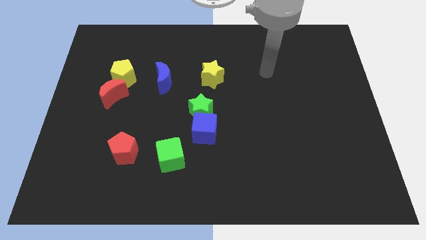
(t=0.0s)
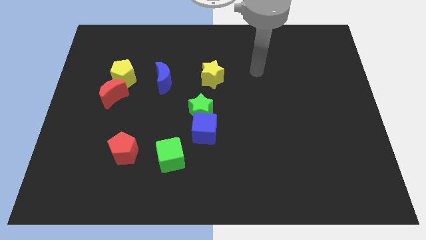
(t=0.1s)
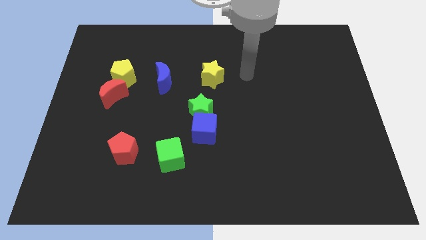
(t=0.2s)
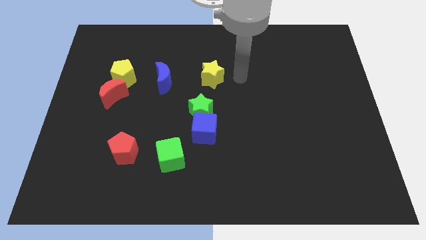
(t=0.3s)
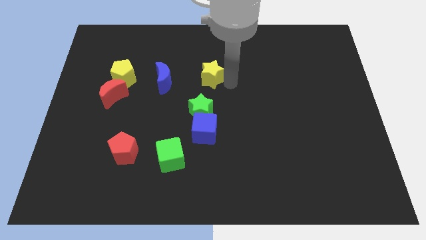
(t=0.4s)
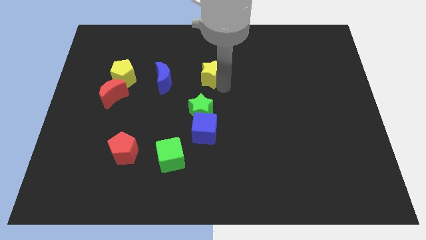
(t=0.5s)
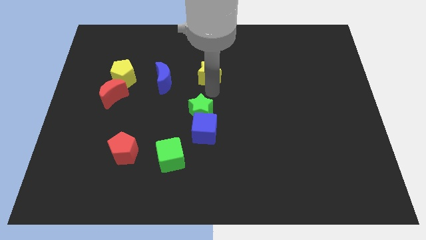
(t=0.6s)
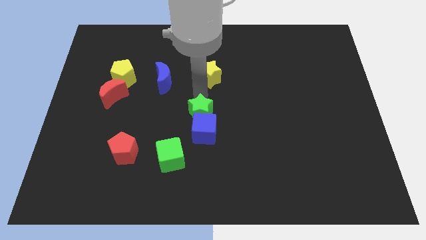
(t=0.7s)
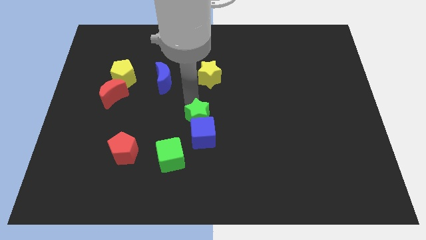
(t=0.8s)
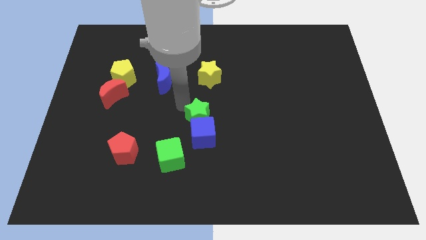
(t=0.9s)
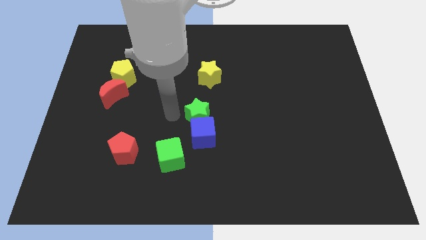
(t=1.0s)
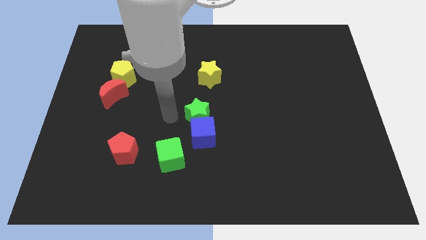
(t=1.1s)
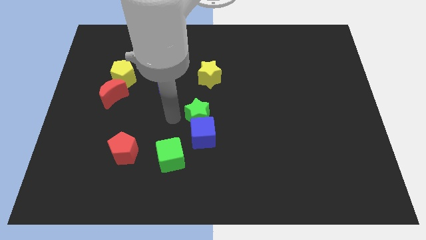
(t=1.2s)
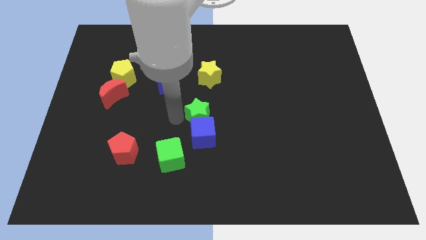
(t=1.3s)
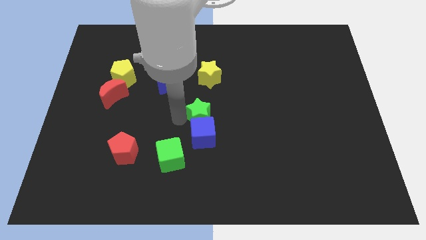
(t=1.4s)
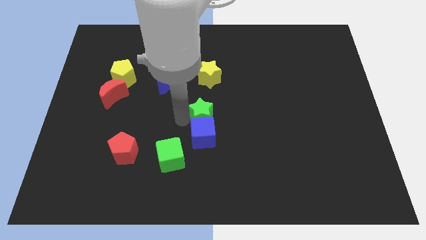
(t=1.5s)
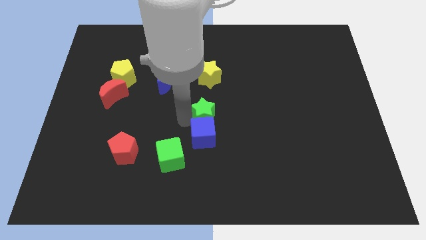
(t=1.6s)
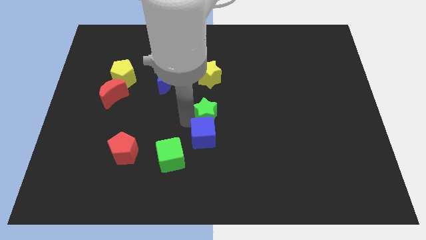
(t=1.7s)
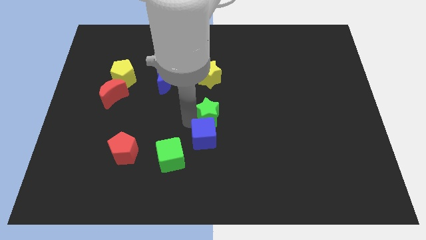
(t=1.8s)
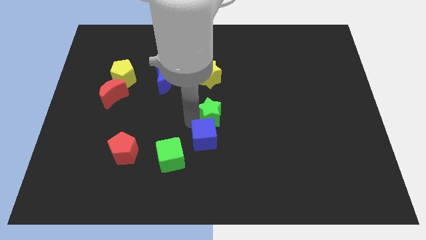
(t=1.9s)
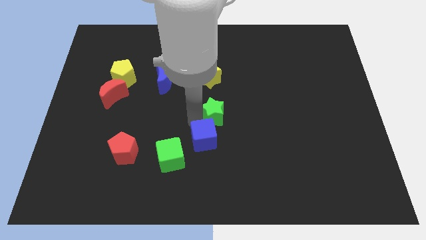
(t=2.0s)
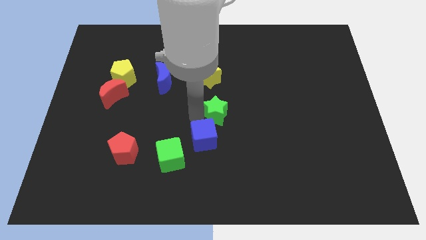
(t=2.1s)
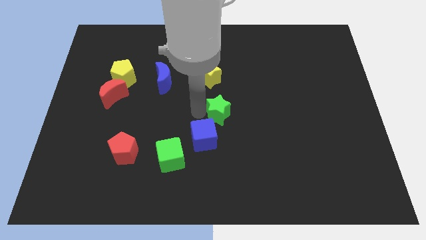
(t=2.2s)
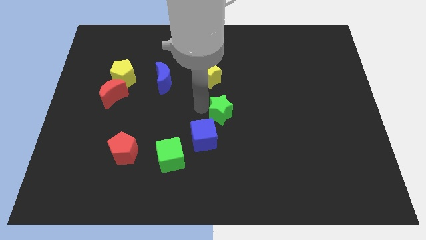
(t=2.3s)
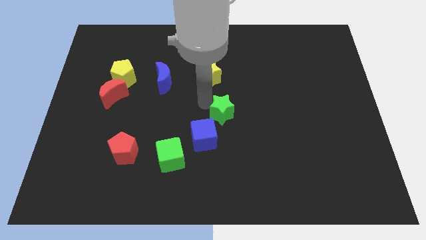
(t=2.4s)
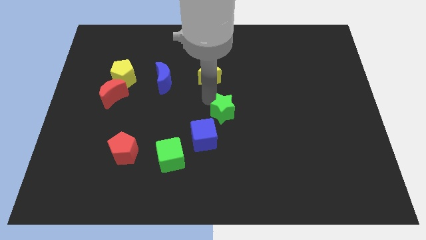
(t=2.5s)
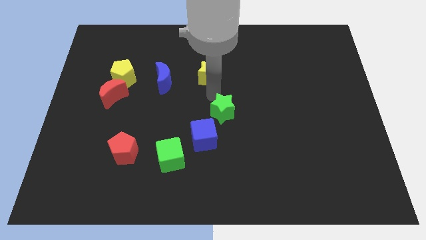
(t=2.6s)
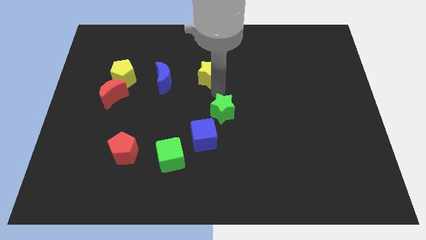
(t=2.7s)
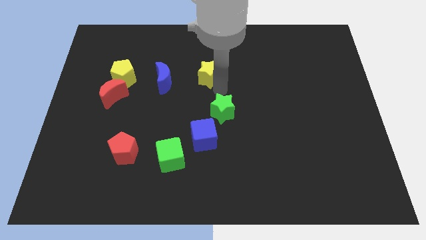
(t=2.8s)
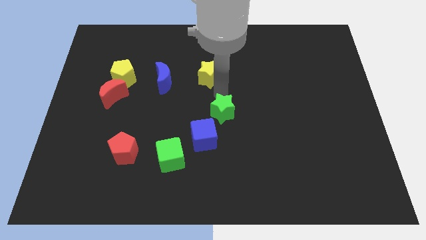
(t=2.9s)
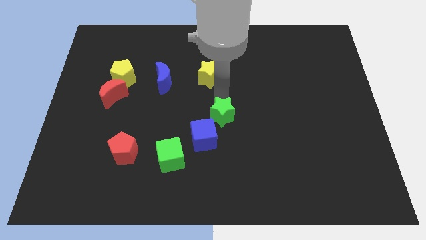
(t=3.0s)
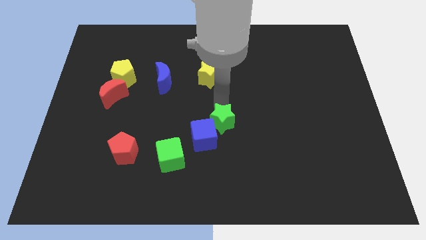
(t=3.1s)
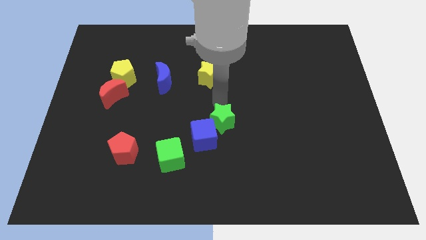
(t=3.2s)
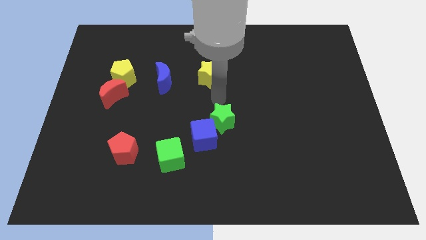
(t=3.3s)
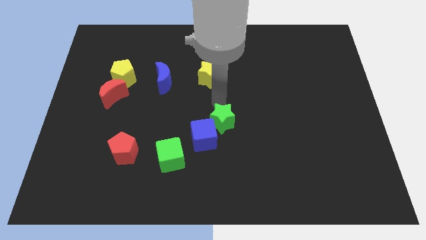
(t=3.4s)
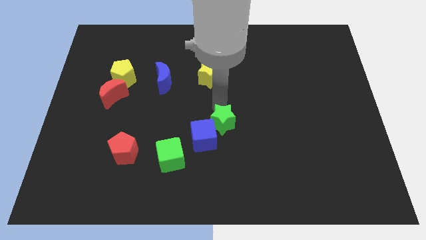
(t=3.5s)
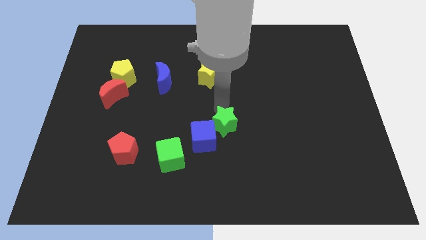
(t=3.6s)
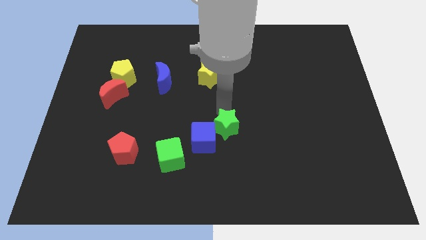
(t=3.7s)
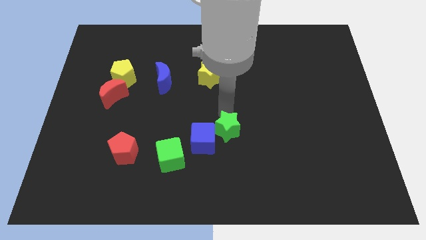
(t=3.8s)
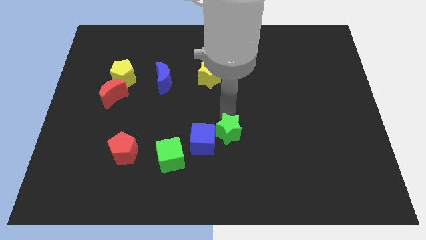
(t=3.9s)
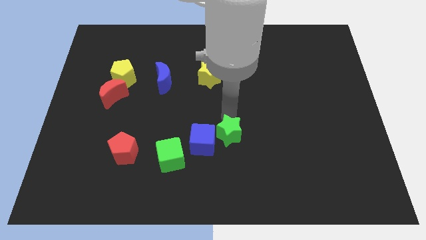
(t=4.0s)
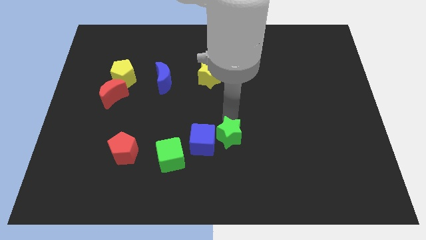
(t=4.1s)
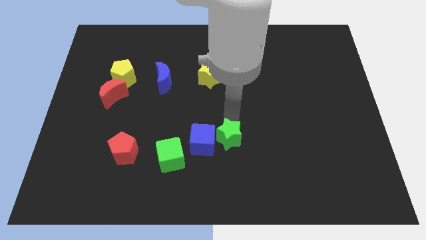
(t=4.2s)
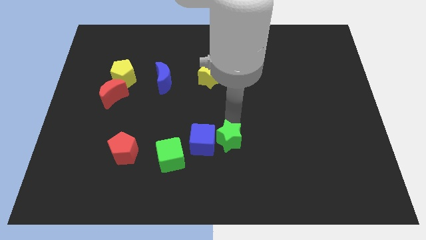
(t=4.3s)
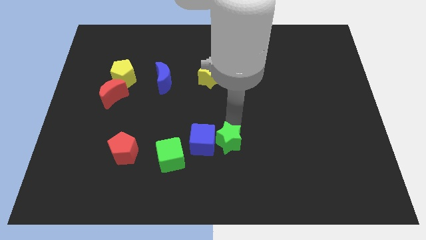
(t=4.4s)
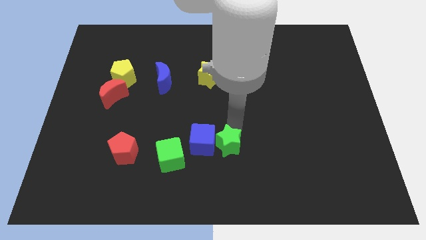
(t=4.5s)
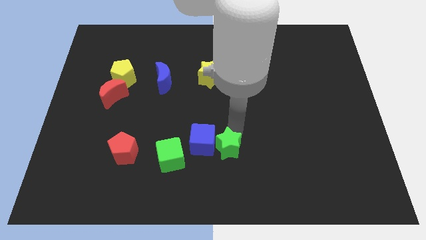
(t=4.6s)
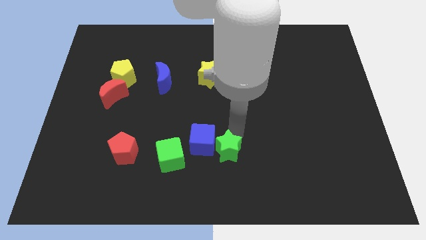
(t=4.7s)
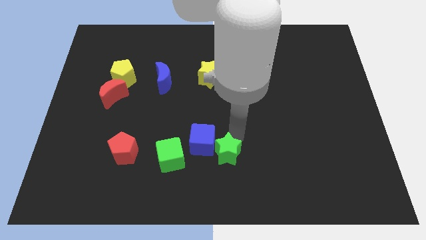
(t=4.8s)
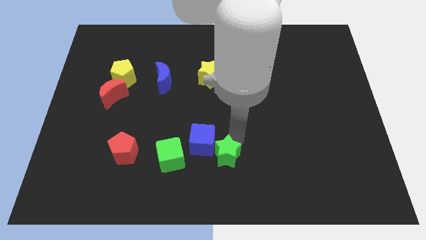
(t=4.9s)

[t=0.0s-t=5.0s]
slide the green star to the bottom

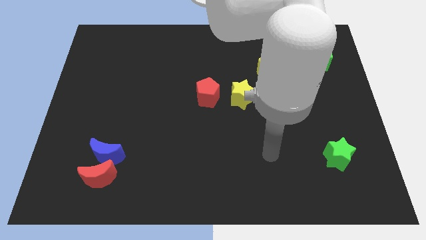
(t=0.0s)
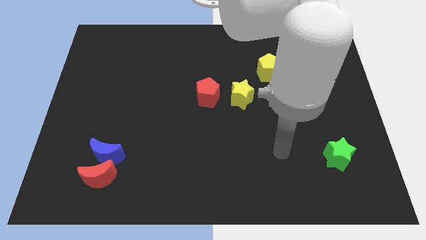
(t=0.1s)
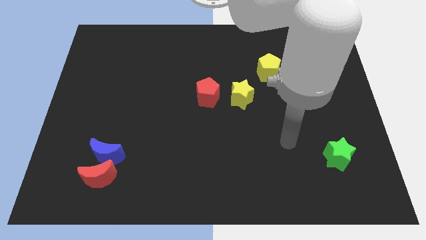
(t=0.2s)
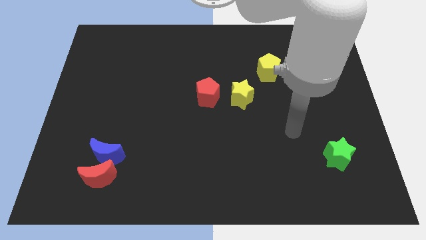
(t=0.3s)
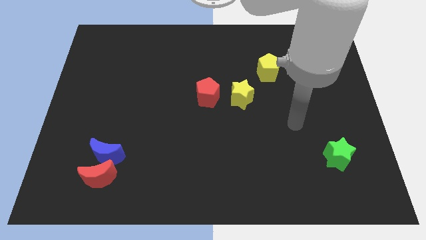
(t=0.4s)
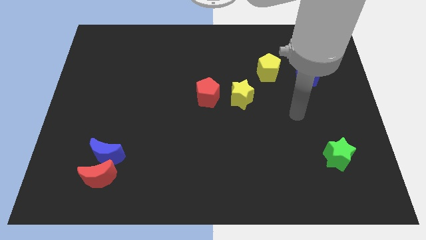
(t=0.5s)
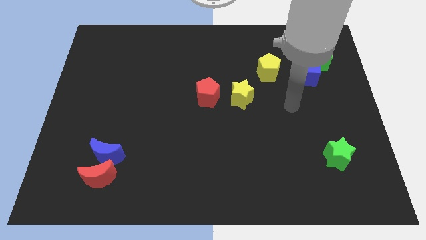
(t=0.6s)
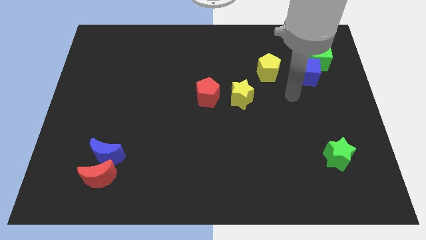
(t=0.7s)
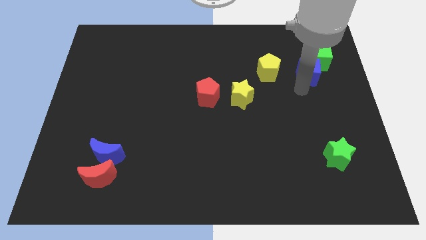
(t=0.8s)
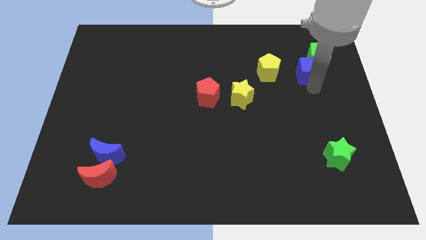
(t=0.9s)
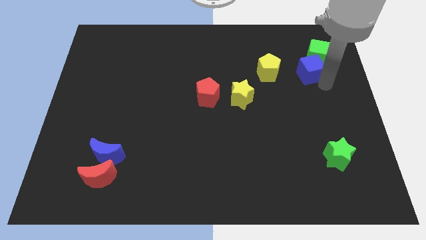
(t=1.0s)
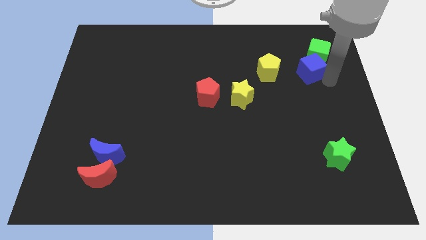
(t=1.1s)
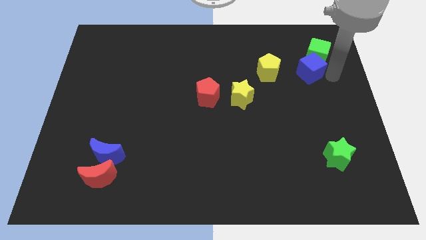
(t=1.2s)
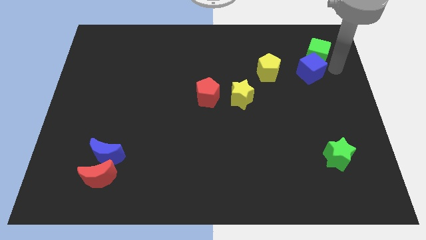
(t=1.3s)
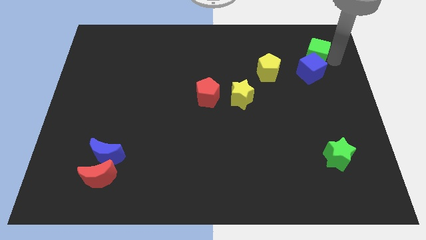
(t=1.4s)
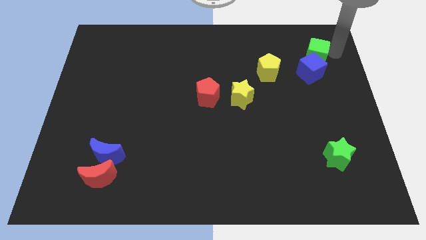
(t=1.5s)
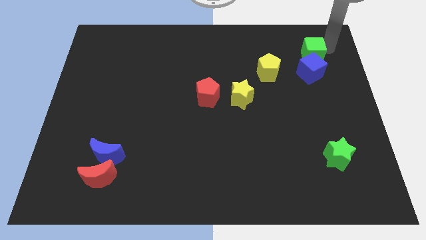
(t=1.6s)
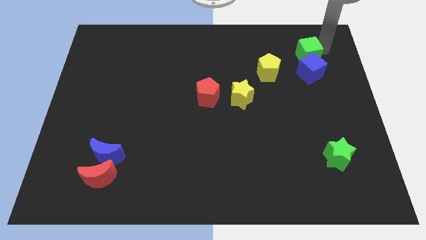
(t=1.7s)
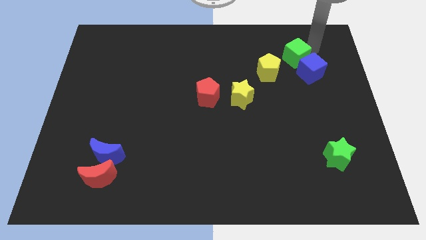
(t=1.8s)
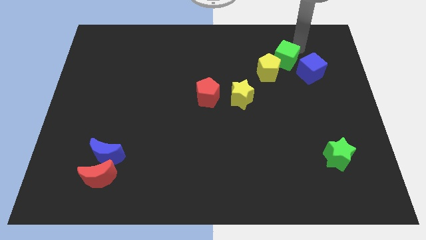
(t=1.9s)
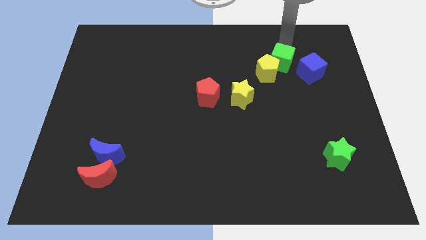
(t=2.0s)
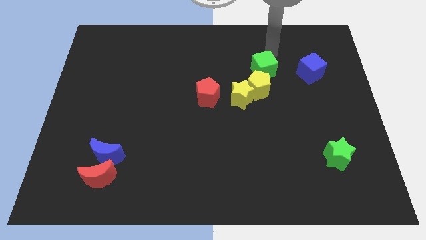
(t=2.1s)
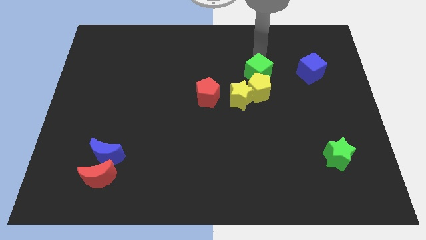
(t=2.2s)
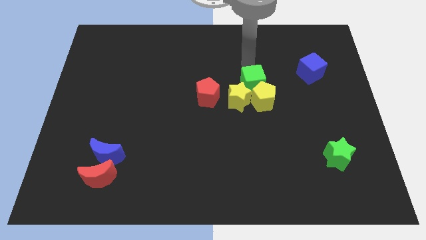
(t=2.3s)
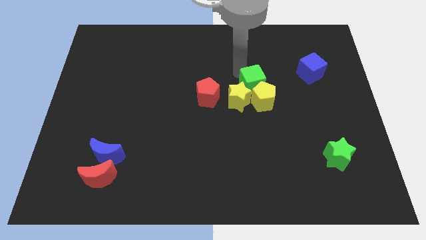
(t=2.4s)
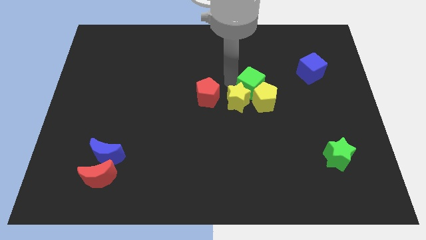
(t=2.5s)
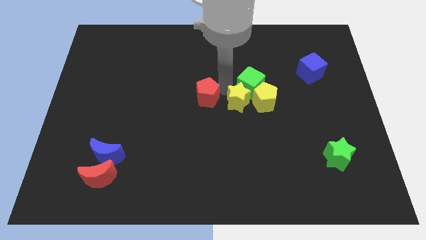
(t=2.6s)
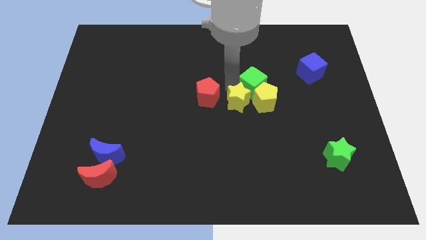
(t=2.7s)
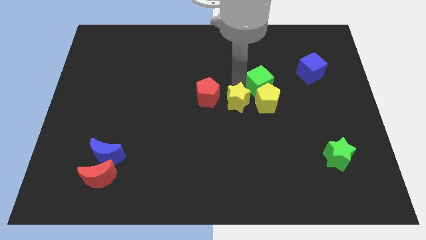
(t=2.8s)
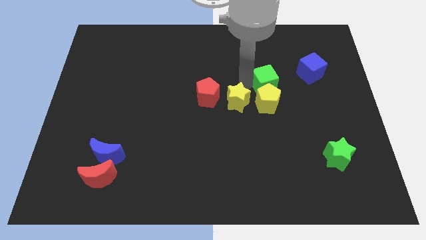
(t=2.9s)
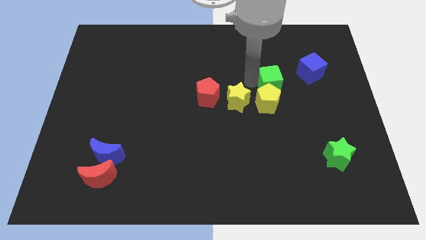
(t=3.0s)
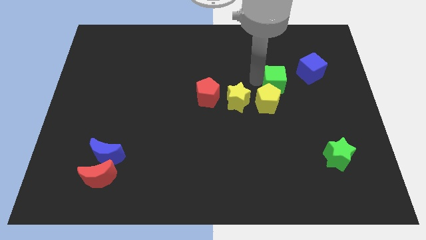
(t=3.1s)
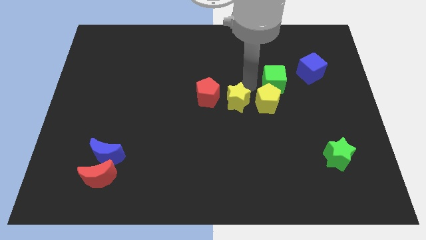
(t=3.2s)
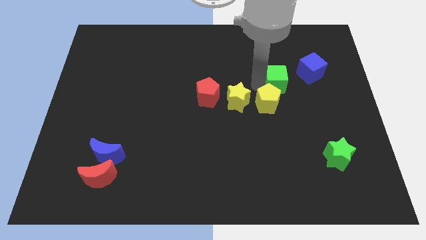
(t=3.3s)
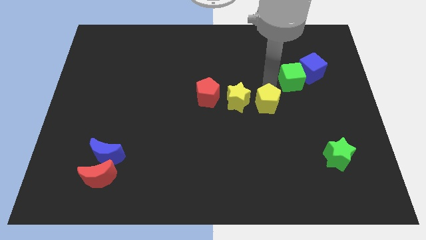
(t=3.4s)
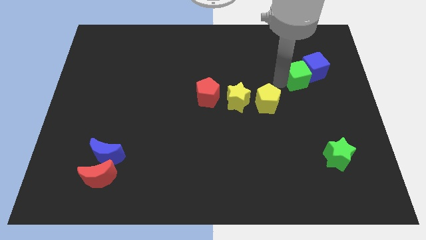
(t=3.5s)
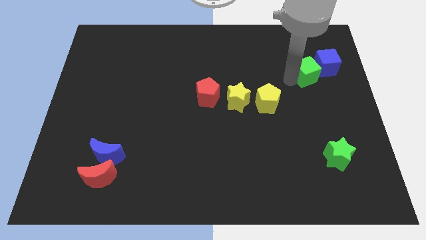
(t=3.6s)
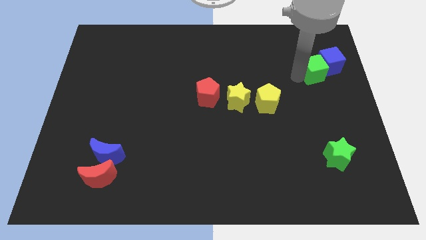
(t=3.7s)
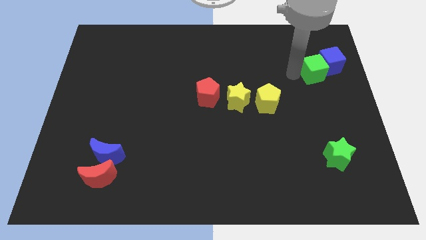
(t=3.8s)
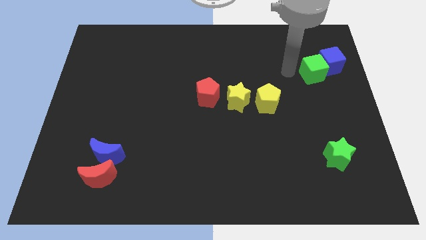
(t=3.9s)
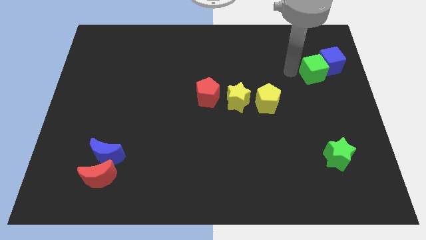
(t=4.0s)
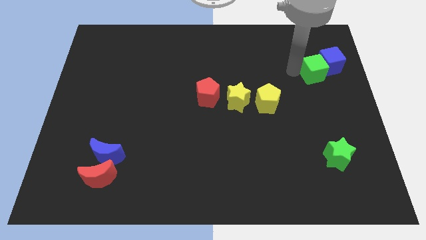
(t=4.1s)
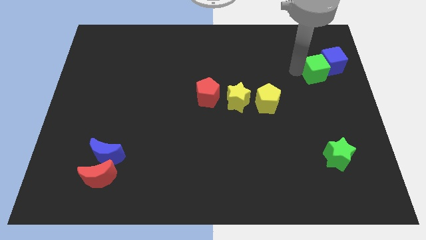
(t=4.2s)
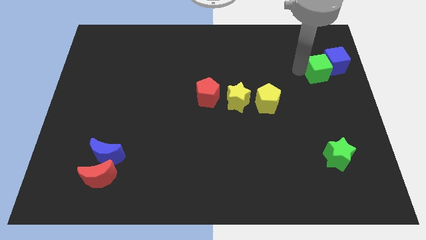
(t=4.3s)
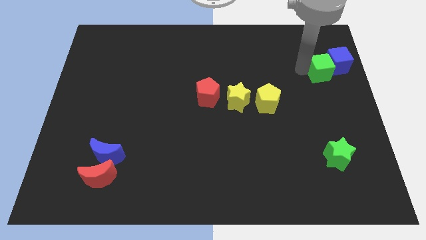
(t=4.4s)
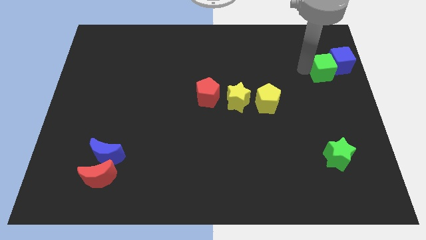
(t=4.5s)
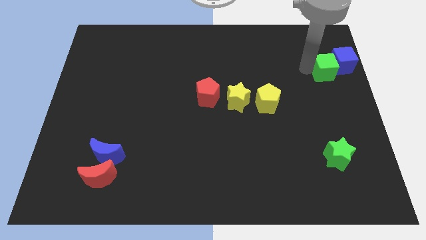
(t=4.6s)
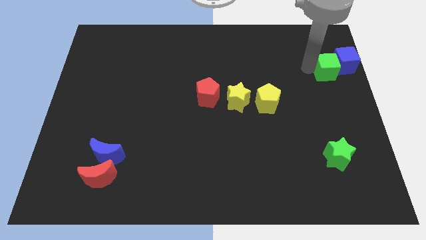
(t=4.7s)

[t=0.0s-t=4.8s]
slide the green cube to the right side
